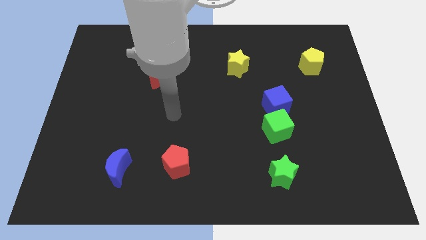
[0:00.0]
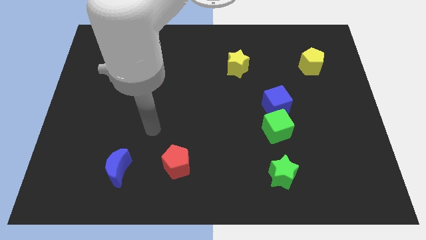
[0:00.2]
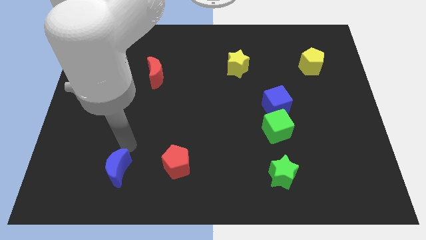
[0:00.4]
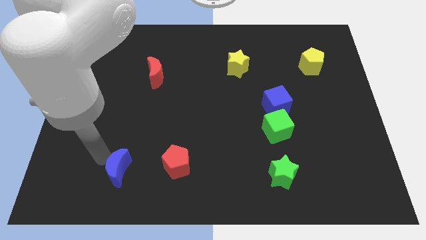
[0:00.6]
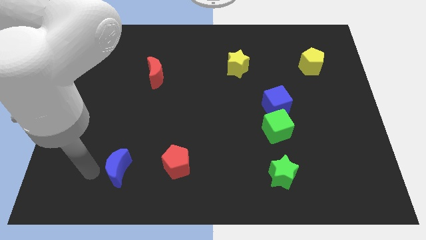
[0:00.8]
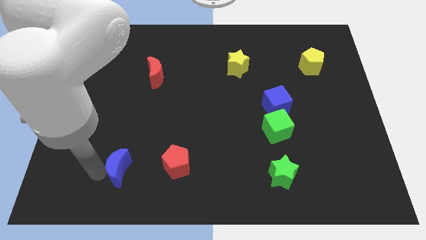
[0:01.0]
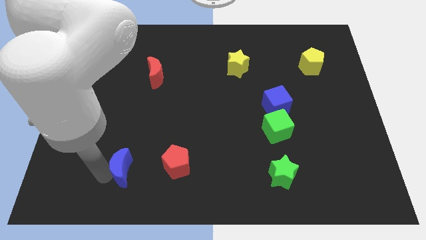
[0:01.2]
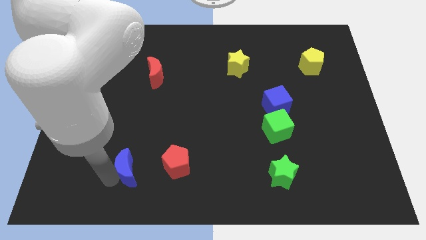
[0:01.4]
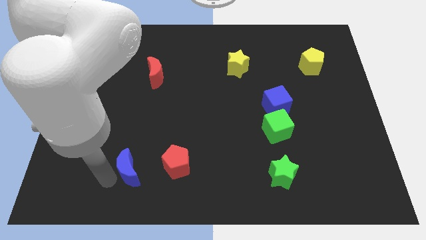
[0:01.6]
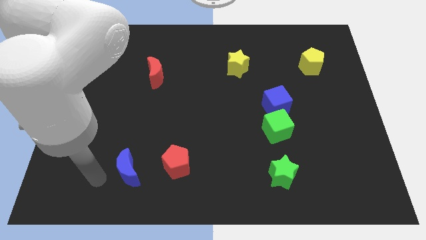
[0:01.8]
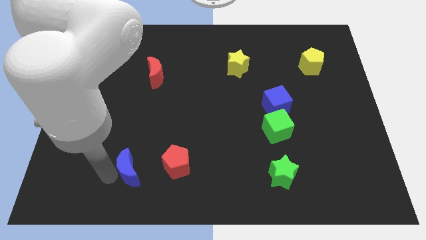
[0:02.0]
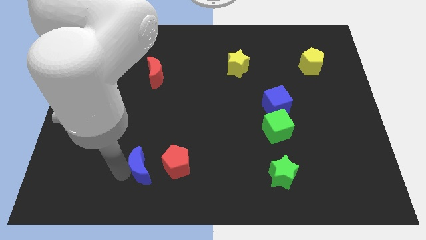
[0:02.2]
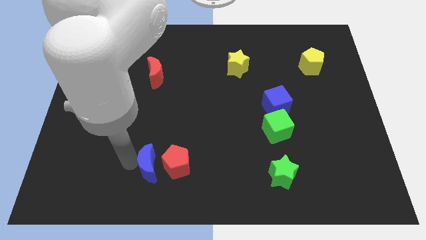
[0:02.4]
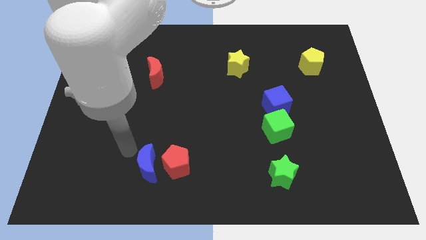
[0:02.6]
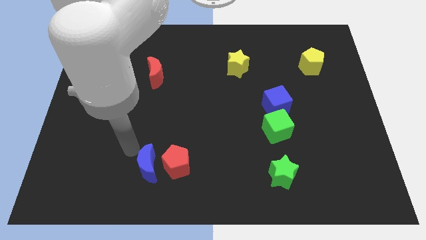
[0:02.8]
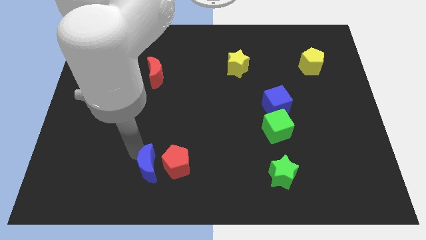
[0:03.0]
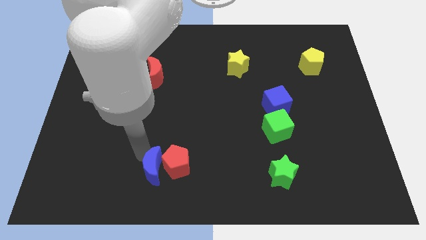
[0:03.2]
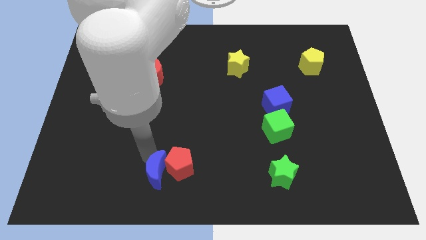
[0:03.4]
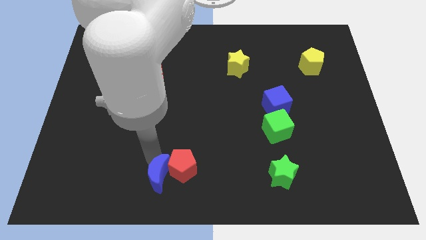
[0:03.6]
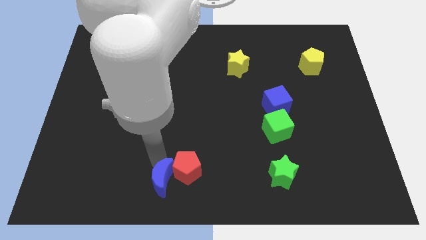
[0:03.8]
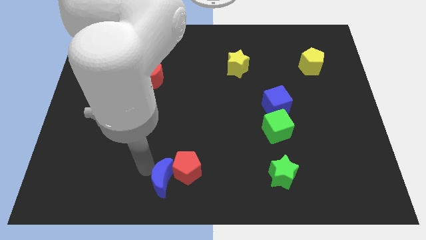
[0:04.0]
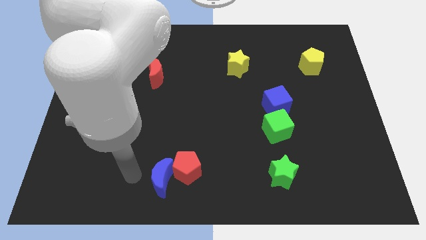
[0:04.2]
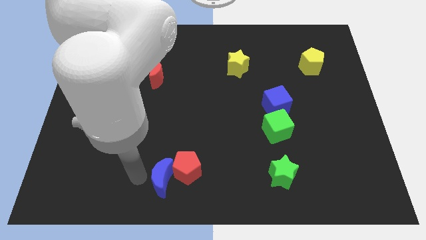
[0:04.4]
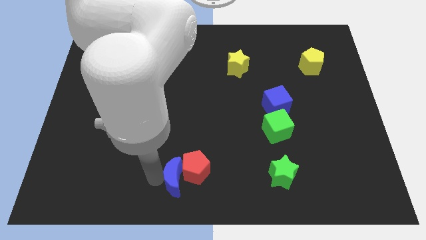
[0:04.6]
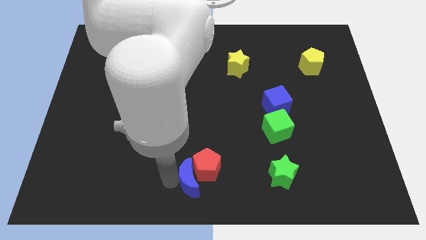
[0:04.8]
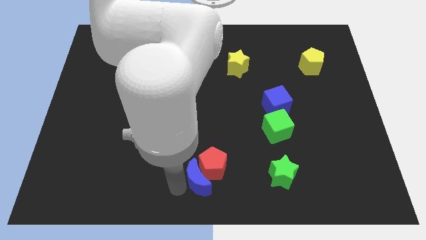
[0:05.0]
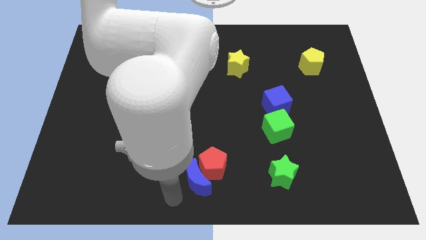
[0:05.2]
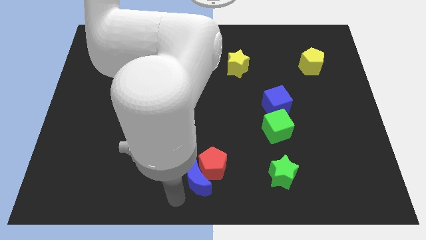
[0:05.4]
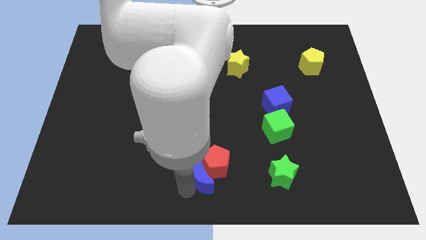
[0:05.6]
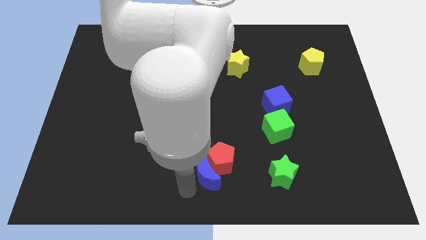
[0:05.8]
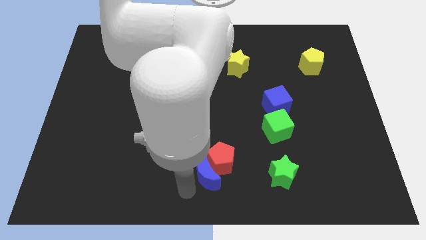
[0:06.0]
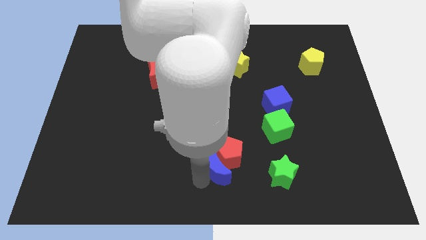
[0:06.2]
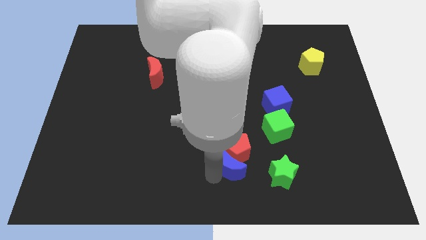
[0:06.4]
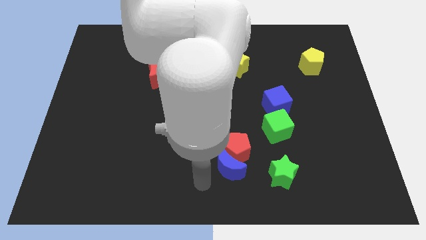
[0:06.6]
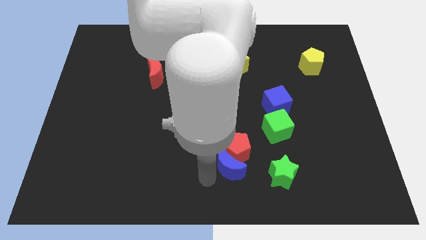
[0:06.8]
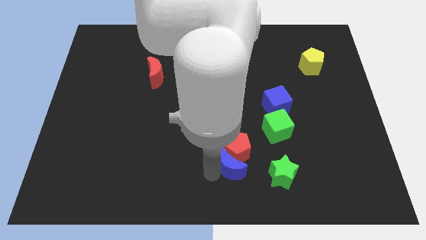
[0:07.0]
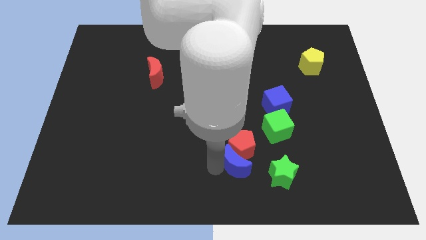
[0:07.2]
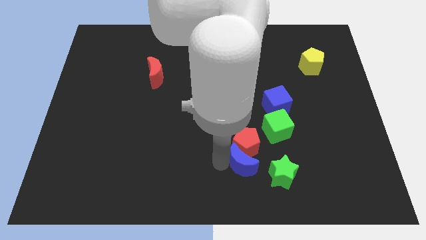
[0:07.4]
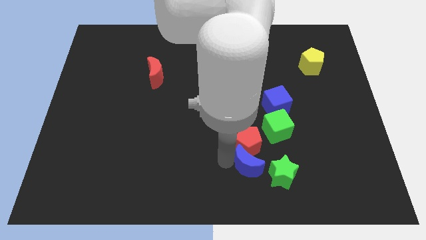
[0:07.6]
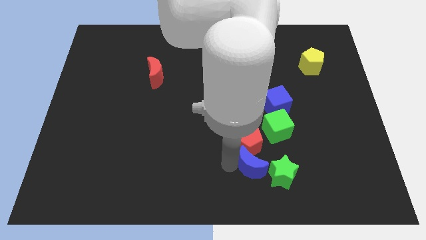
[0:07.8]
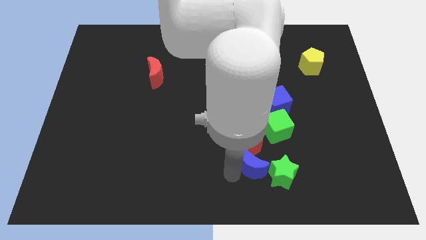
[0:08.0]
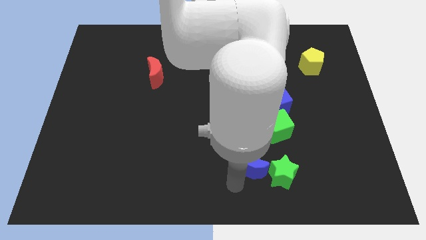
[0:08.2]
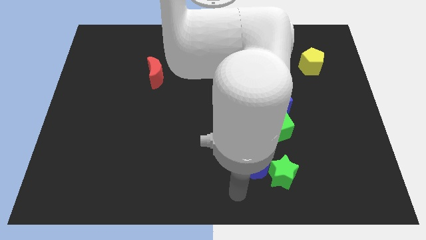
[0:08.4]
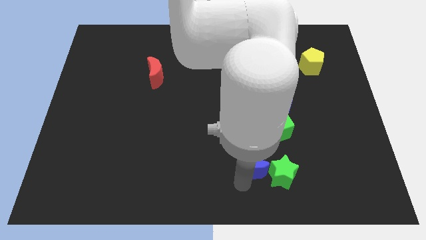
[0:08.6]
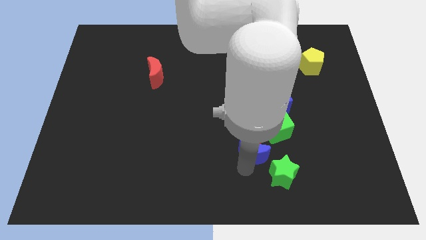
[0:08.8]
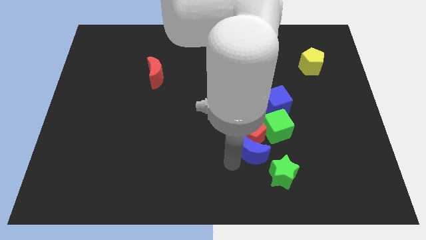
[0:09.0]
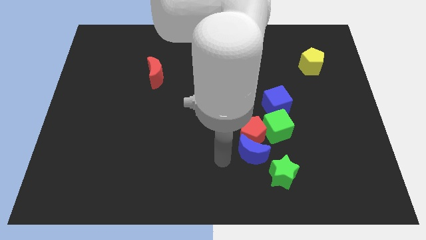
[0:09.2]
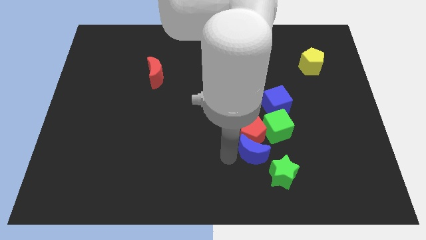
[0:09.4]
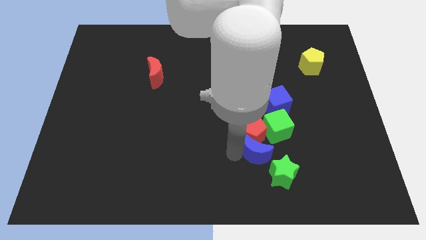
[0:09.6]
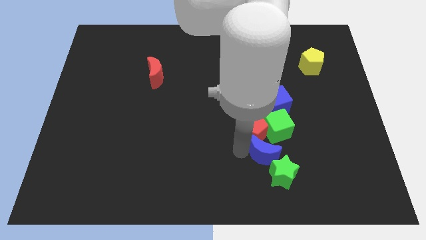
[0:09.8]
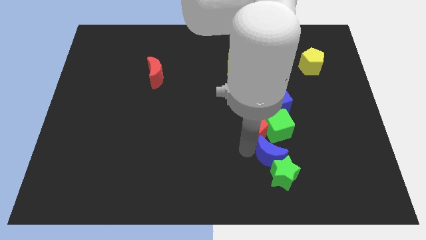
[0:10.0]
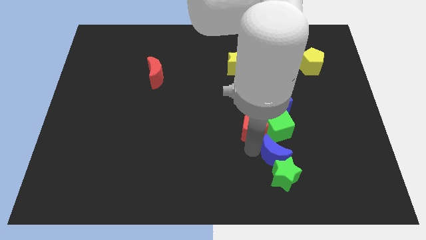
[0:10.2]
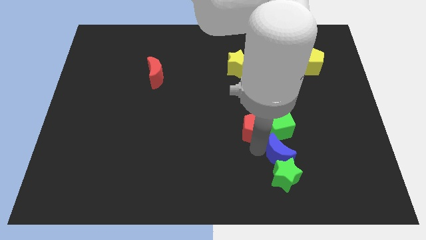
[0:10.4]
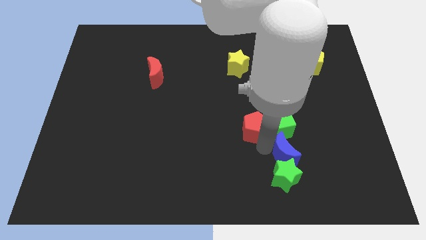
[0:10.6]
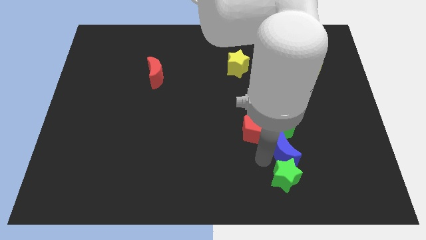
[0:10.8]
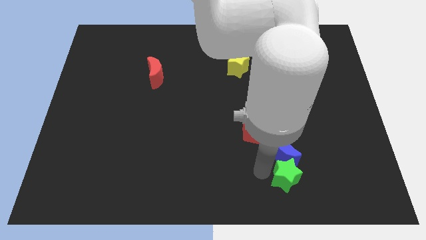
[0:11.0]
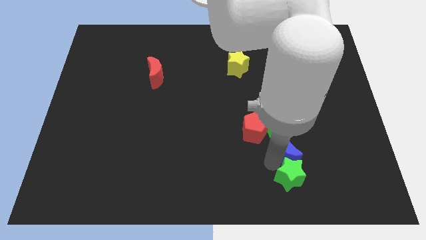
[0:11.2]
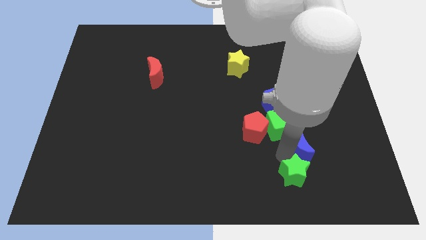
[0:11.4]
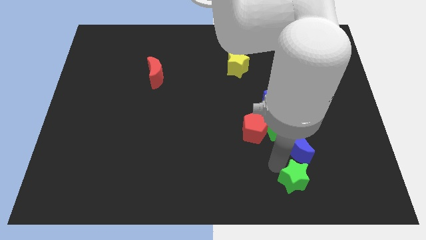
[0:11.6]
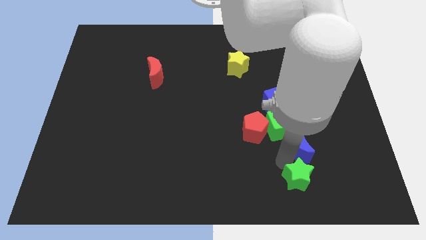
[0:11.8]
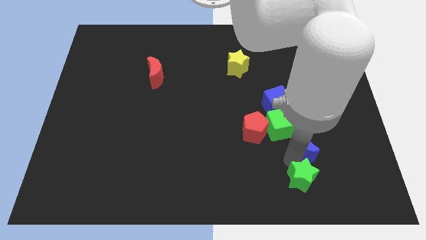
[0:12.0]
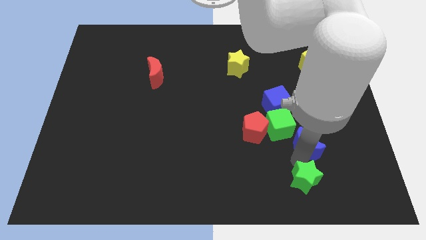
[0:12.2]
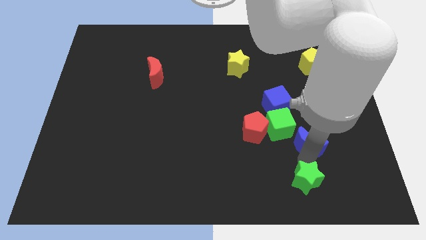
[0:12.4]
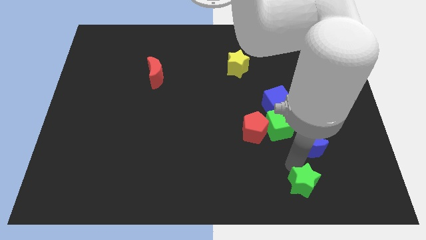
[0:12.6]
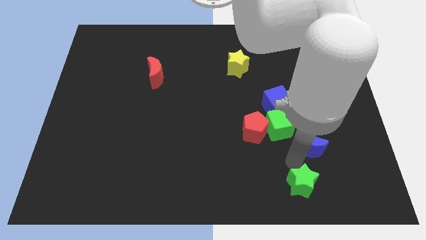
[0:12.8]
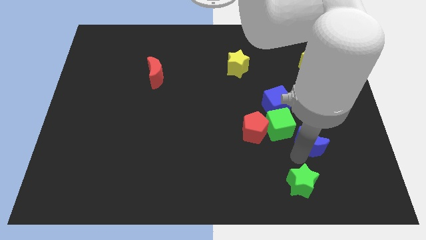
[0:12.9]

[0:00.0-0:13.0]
push the blue moon to the right side of the green cube

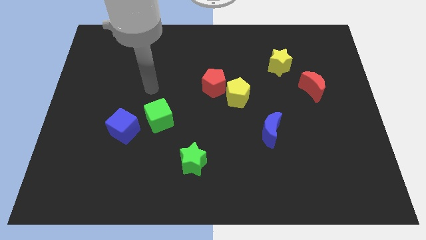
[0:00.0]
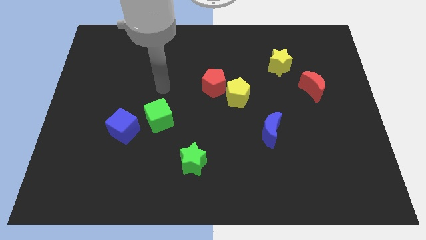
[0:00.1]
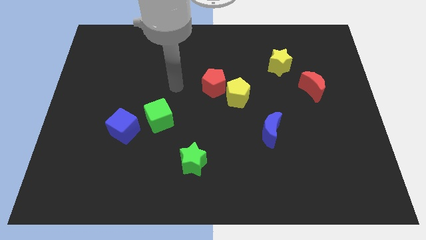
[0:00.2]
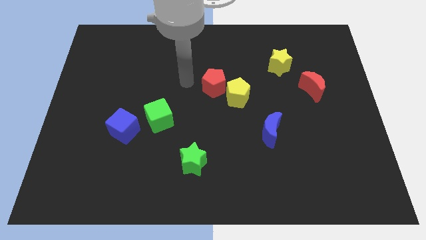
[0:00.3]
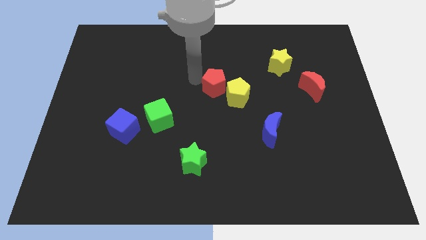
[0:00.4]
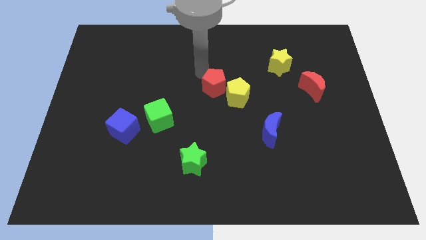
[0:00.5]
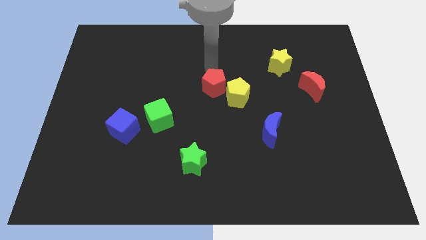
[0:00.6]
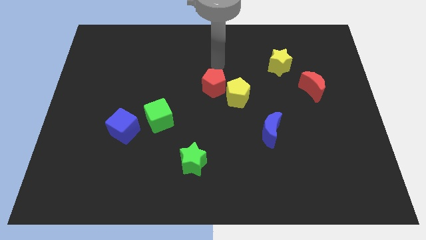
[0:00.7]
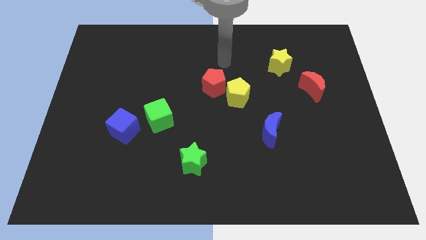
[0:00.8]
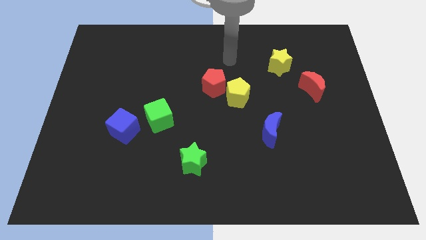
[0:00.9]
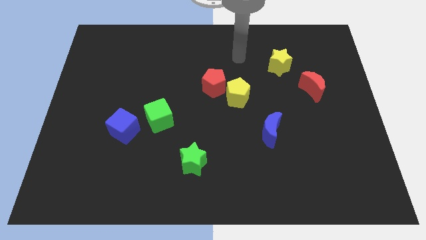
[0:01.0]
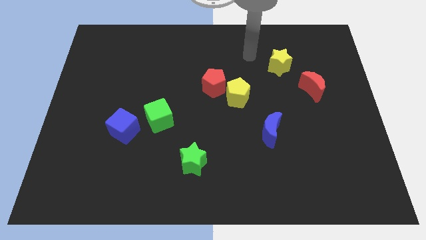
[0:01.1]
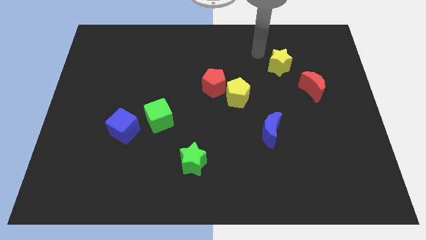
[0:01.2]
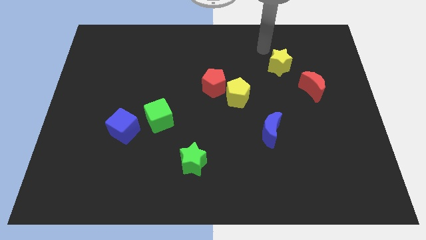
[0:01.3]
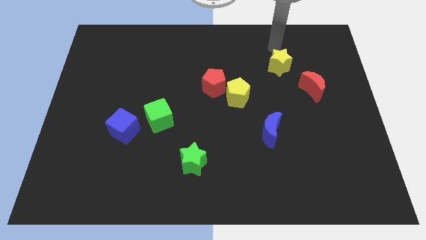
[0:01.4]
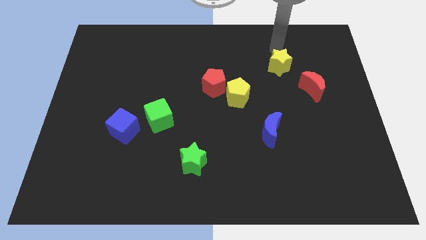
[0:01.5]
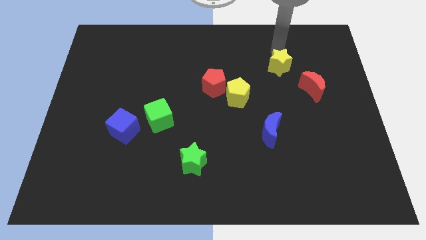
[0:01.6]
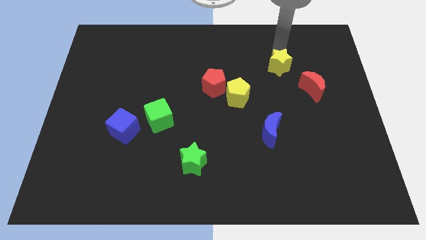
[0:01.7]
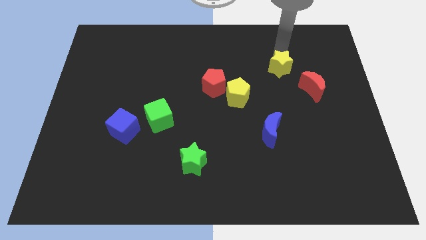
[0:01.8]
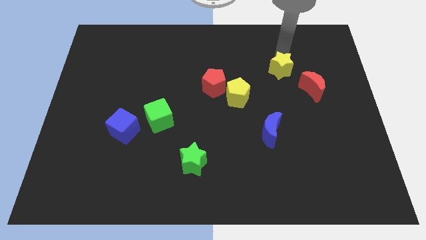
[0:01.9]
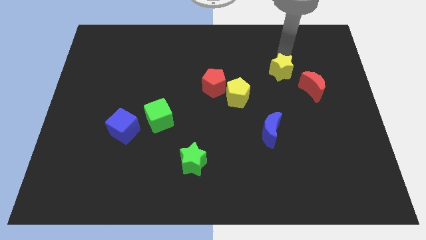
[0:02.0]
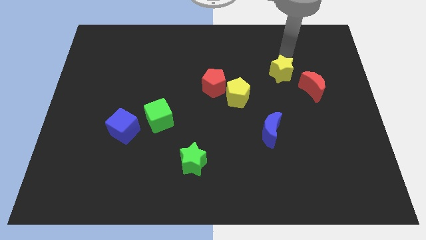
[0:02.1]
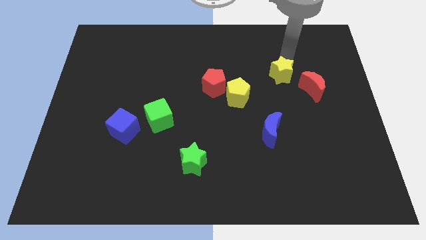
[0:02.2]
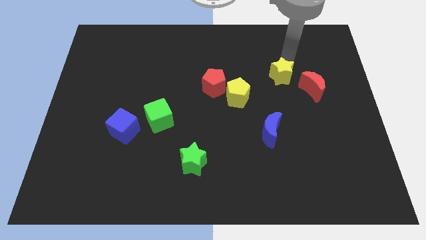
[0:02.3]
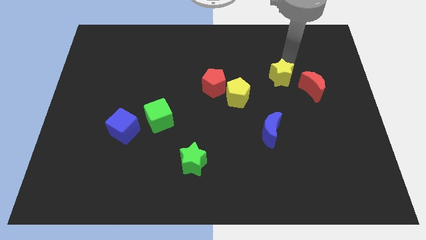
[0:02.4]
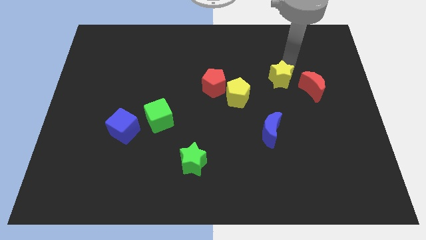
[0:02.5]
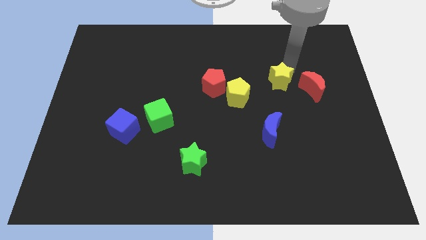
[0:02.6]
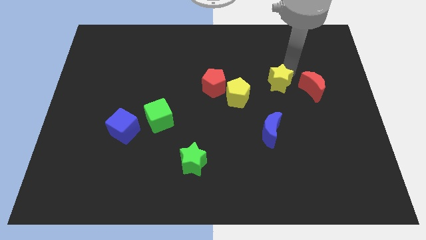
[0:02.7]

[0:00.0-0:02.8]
put the yellow star right of the yellow pentagon
